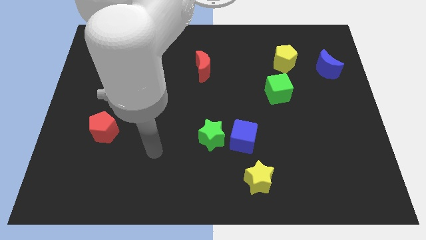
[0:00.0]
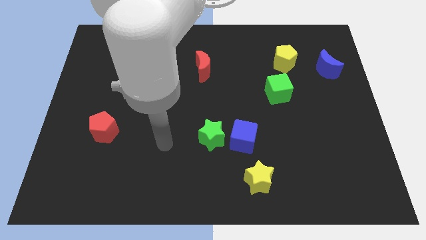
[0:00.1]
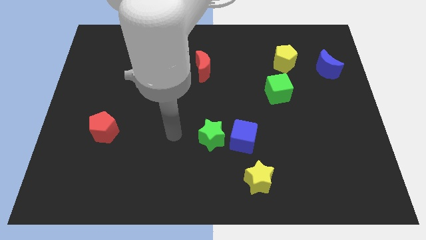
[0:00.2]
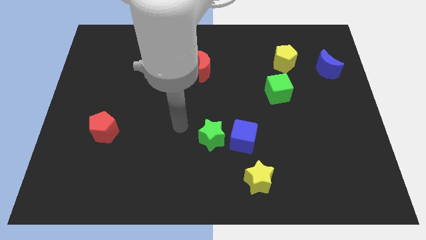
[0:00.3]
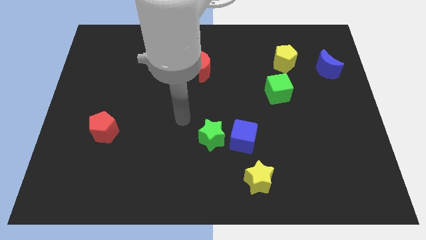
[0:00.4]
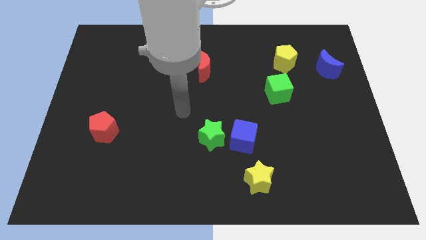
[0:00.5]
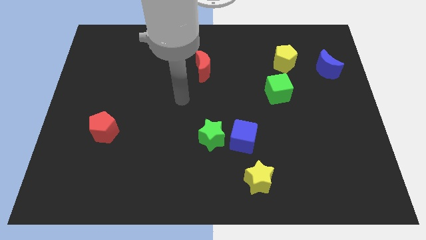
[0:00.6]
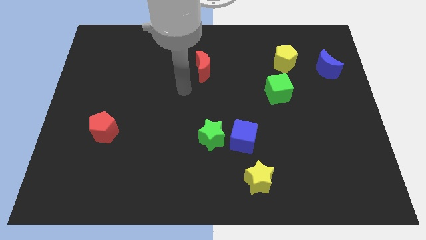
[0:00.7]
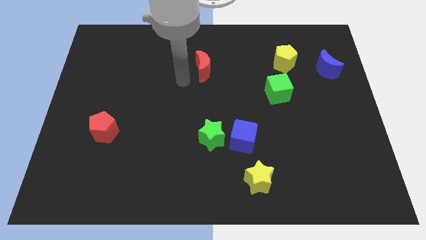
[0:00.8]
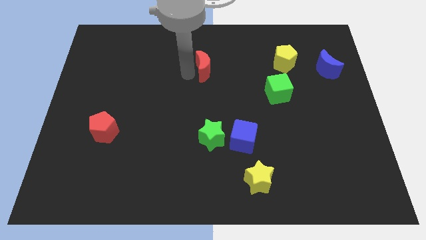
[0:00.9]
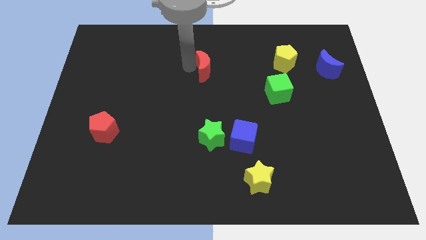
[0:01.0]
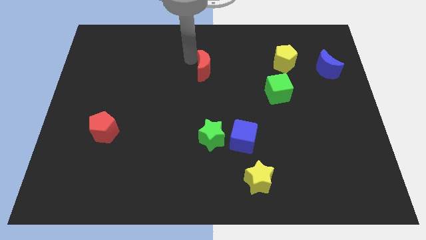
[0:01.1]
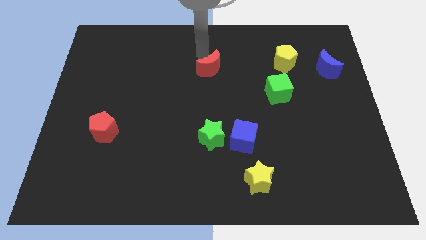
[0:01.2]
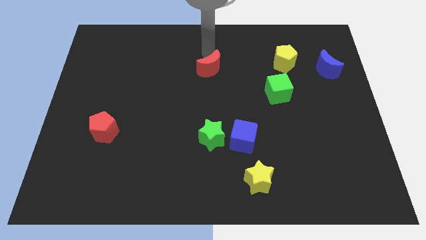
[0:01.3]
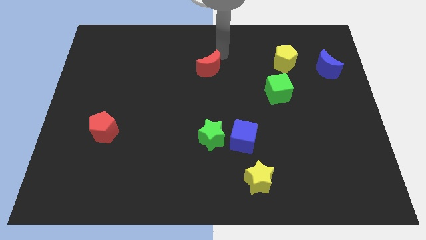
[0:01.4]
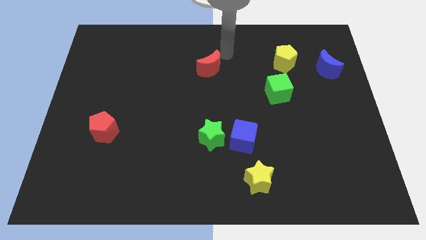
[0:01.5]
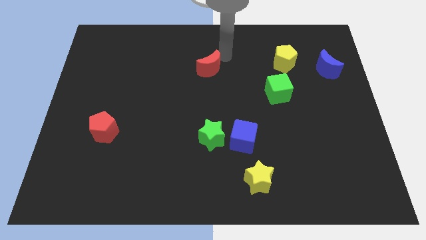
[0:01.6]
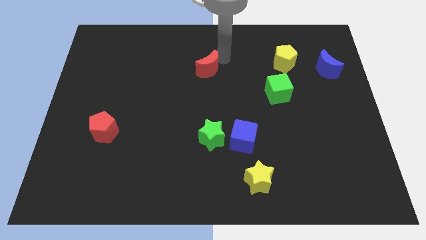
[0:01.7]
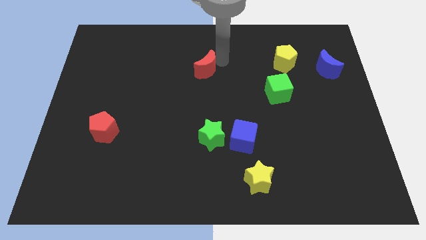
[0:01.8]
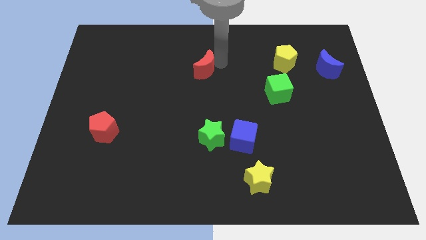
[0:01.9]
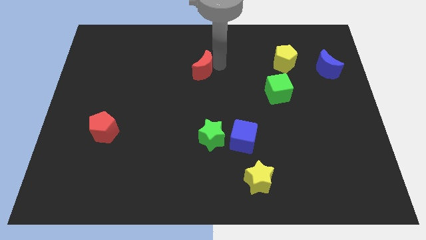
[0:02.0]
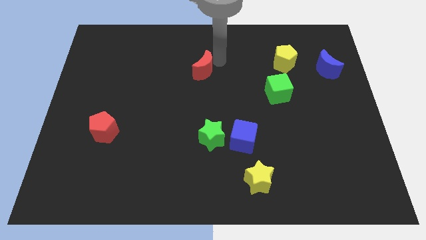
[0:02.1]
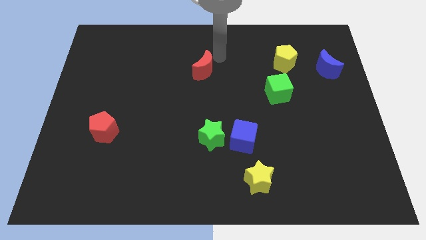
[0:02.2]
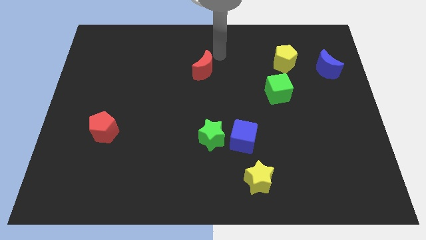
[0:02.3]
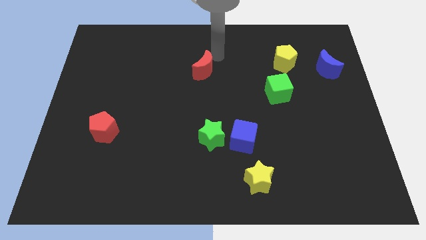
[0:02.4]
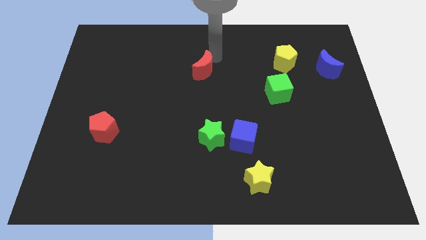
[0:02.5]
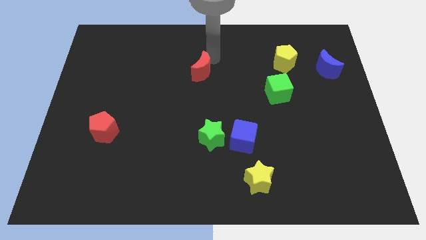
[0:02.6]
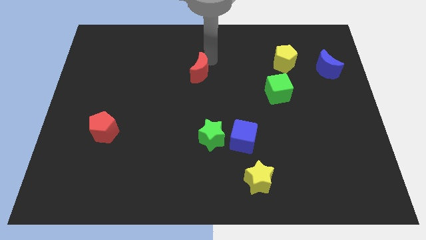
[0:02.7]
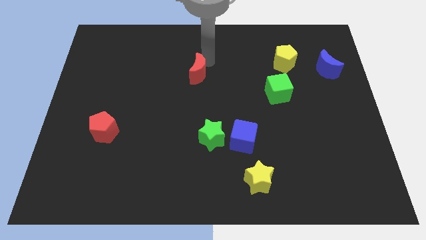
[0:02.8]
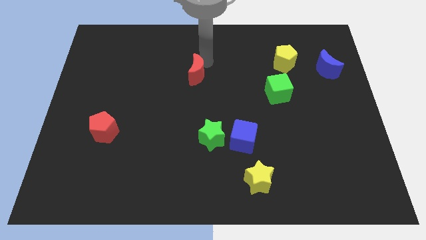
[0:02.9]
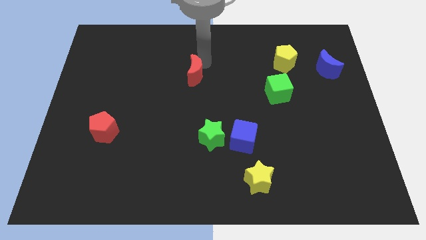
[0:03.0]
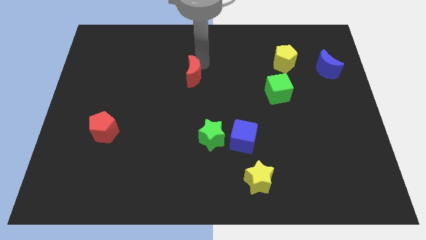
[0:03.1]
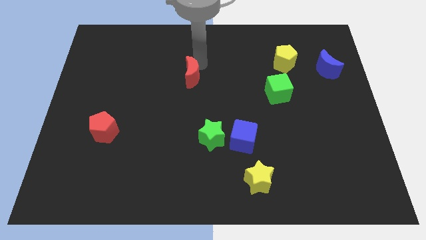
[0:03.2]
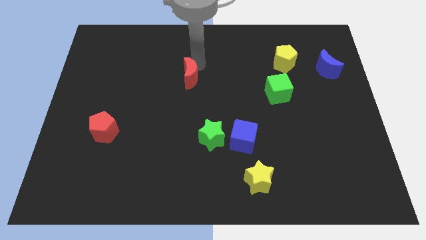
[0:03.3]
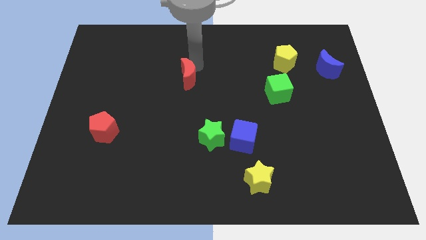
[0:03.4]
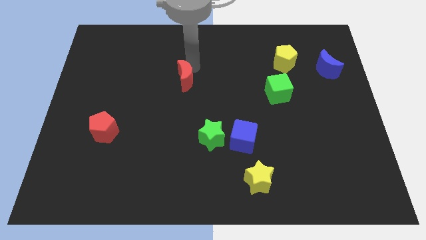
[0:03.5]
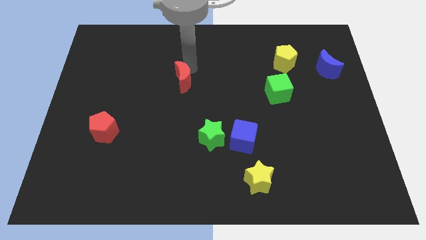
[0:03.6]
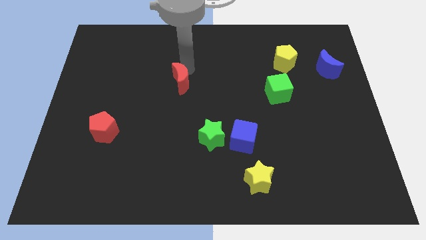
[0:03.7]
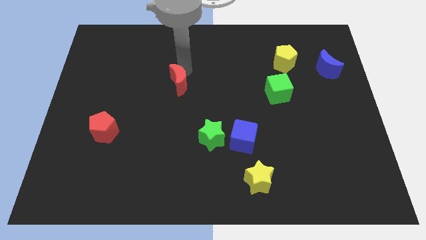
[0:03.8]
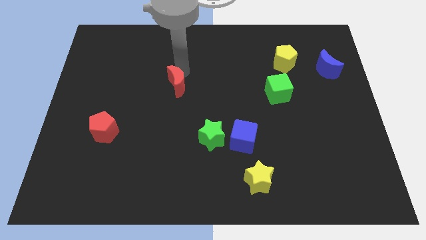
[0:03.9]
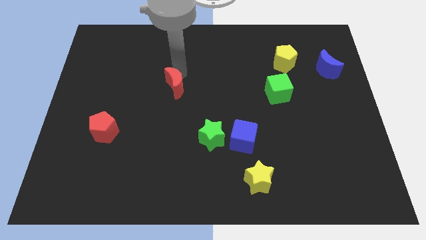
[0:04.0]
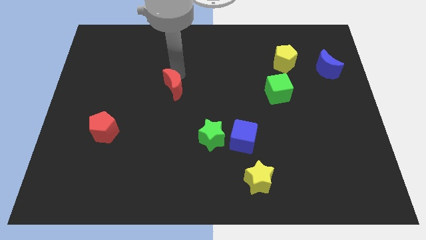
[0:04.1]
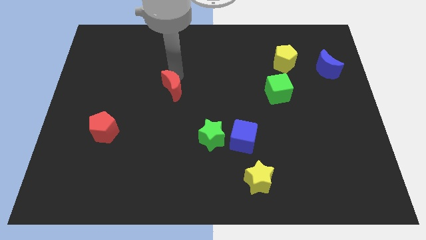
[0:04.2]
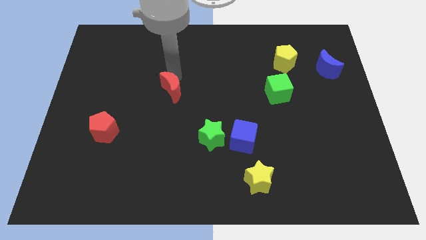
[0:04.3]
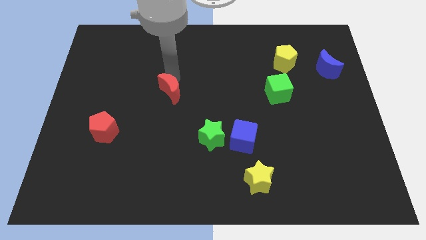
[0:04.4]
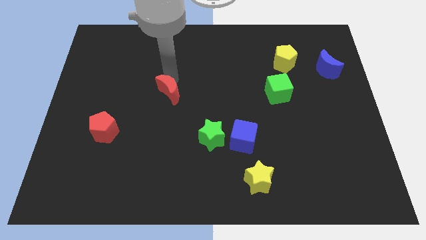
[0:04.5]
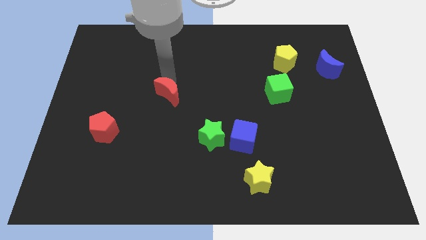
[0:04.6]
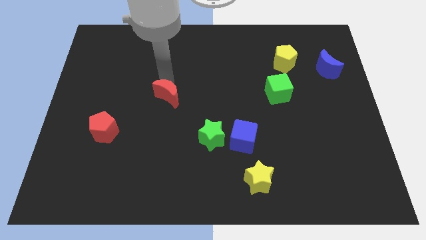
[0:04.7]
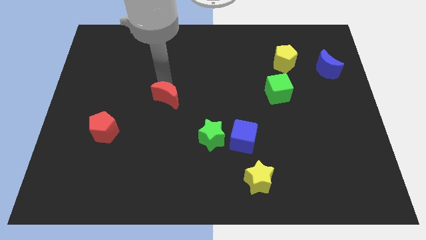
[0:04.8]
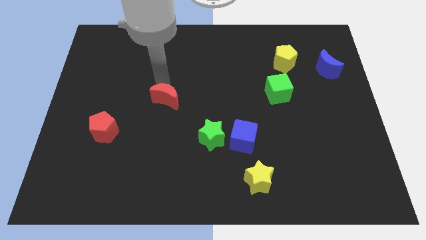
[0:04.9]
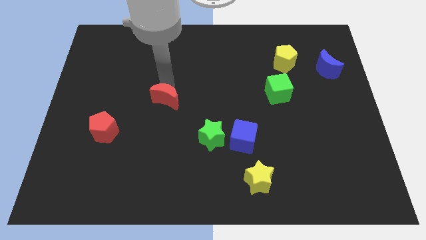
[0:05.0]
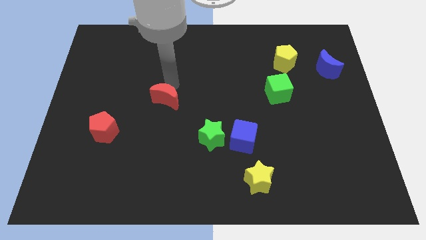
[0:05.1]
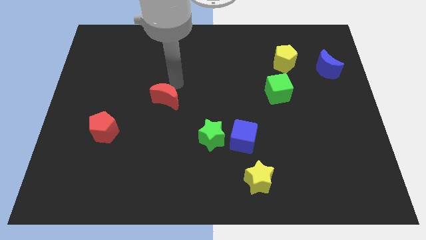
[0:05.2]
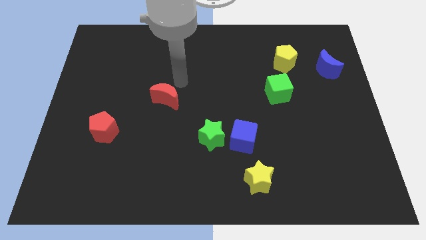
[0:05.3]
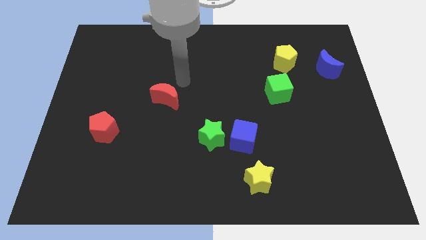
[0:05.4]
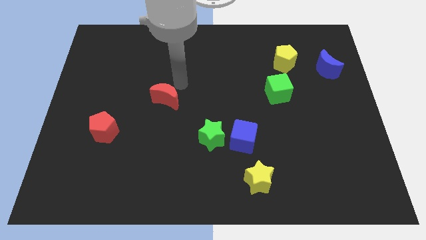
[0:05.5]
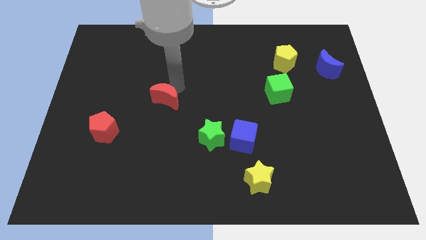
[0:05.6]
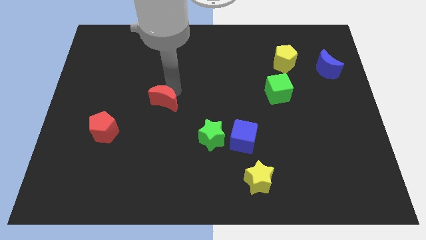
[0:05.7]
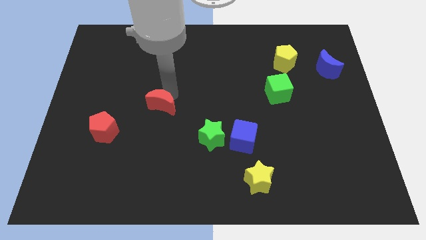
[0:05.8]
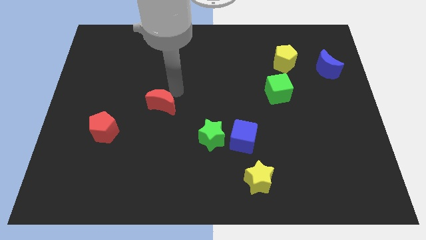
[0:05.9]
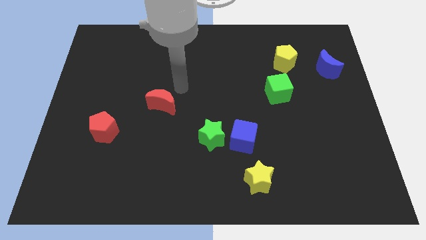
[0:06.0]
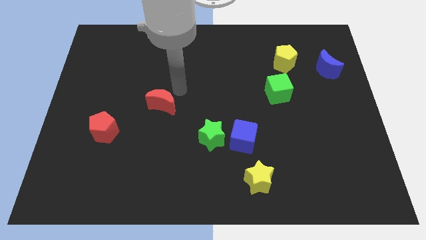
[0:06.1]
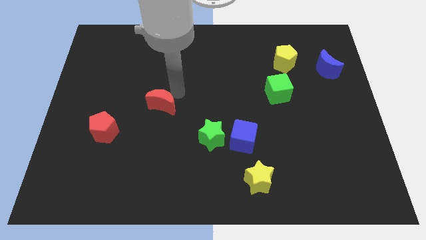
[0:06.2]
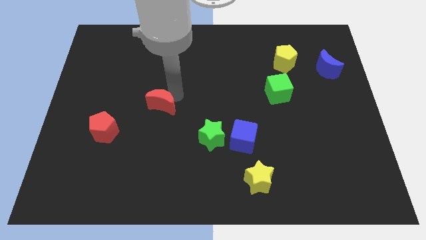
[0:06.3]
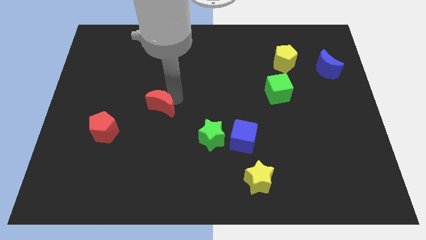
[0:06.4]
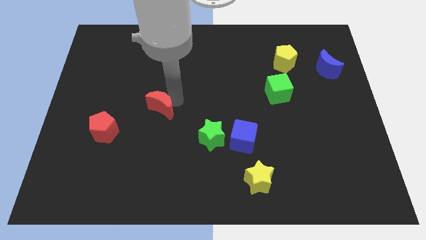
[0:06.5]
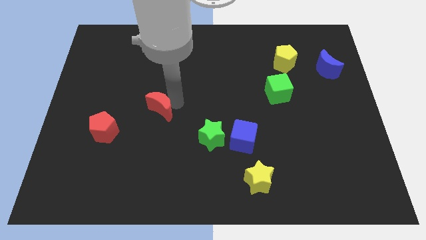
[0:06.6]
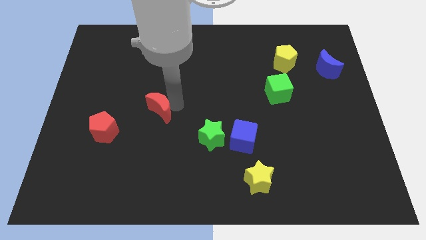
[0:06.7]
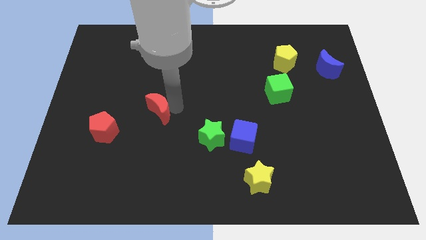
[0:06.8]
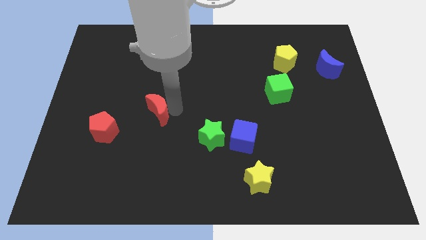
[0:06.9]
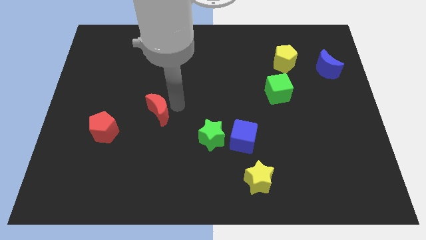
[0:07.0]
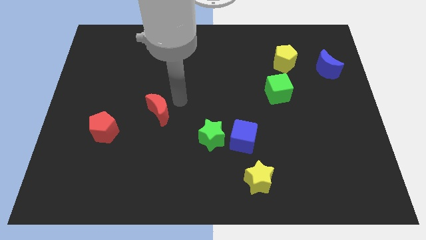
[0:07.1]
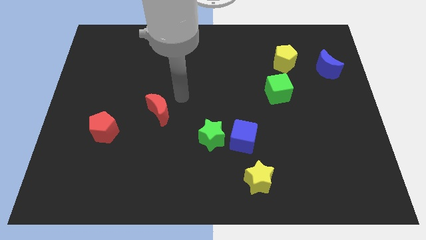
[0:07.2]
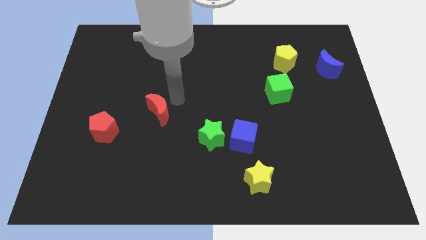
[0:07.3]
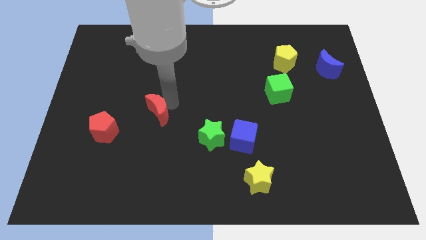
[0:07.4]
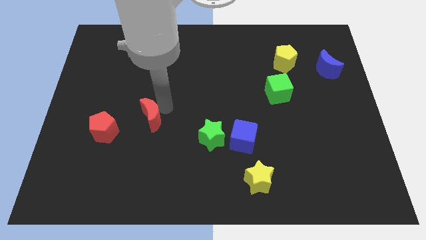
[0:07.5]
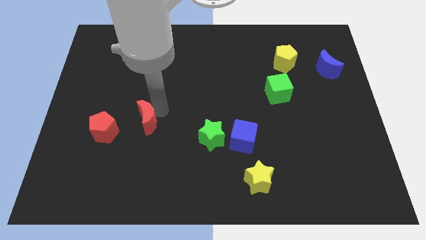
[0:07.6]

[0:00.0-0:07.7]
push the red moon downwards and left diagonally

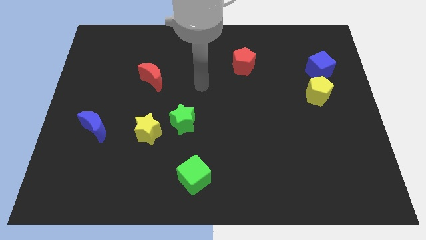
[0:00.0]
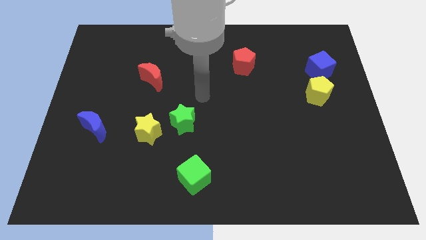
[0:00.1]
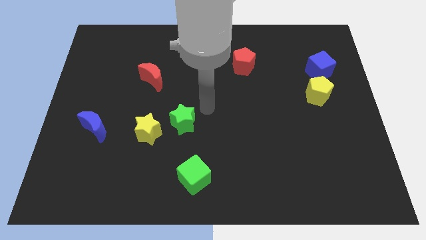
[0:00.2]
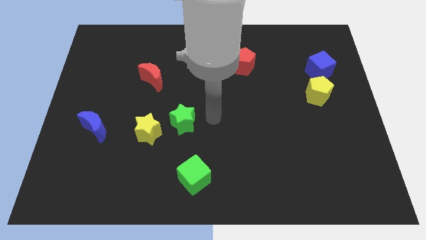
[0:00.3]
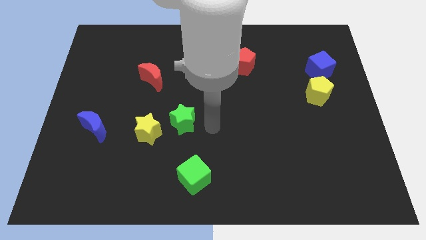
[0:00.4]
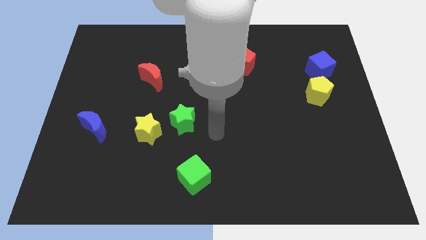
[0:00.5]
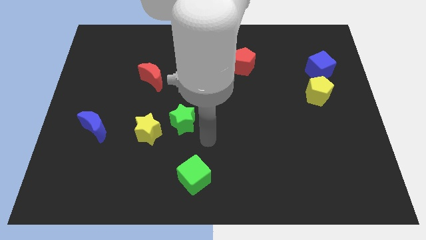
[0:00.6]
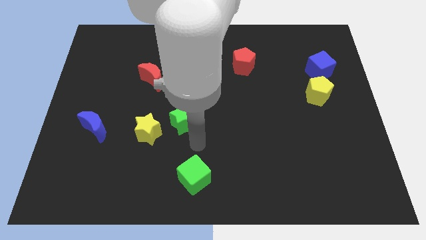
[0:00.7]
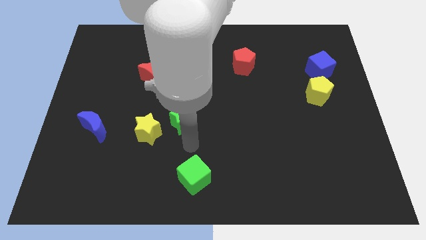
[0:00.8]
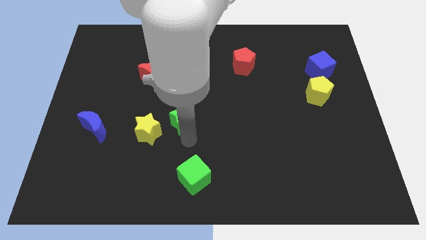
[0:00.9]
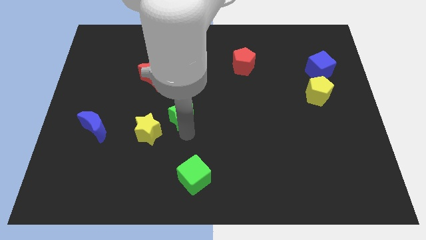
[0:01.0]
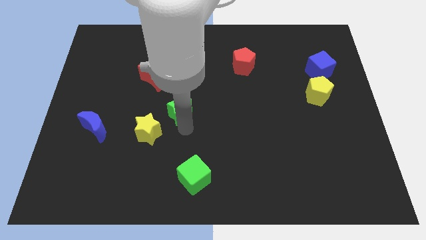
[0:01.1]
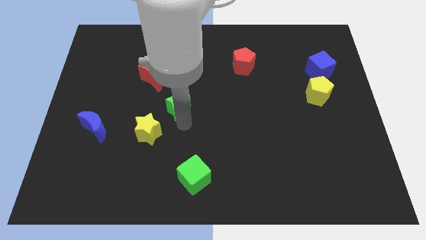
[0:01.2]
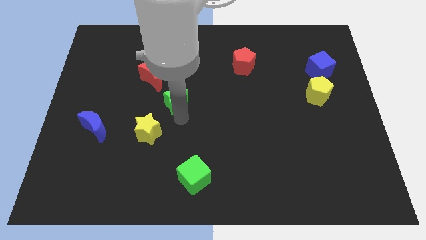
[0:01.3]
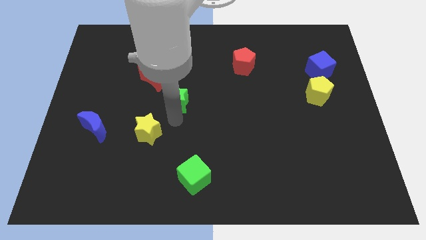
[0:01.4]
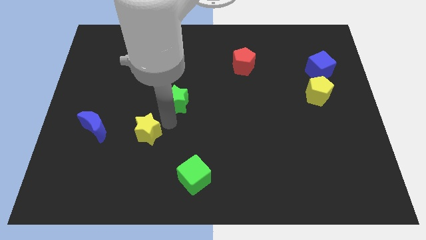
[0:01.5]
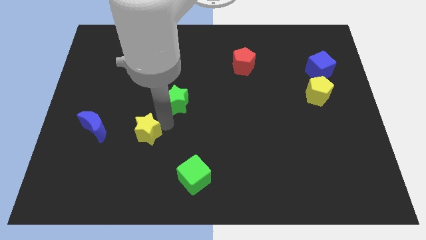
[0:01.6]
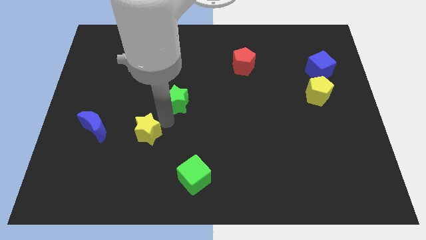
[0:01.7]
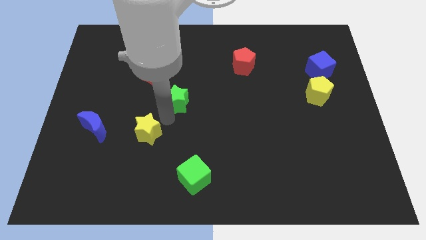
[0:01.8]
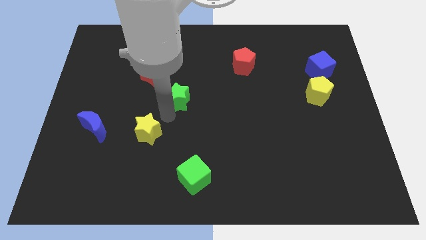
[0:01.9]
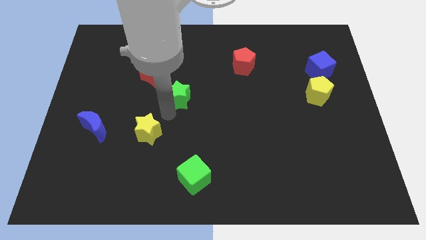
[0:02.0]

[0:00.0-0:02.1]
push the green star a little up
